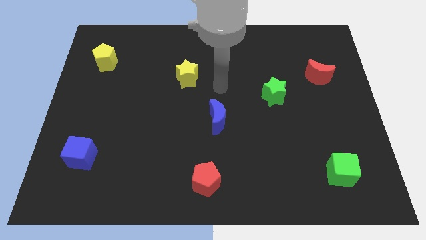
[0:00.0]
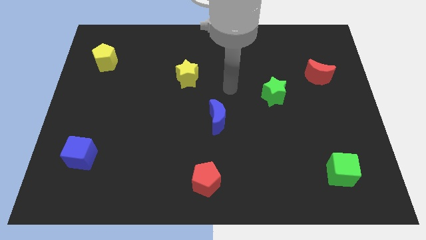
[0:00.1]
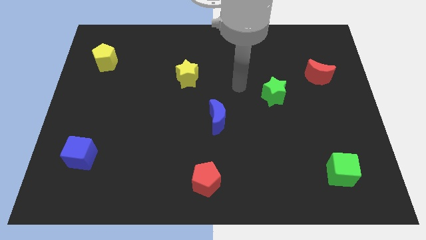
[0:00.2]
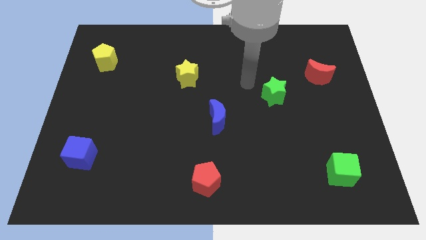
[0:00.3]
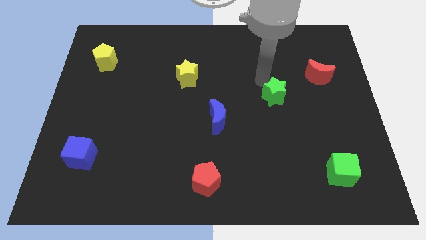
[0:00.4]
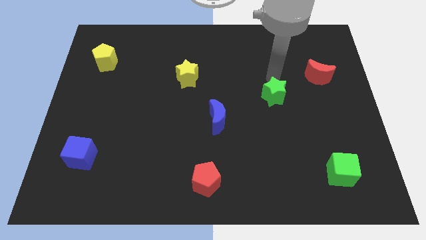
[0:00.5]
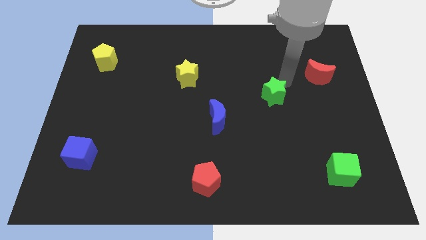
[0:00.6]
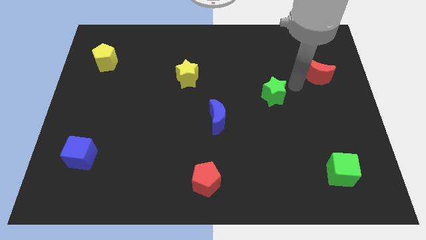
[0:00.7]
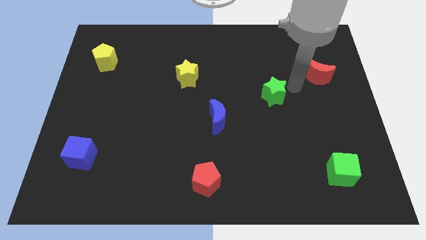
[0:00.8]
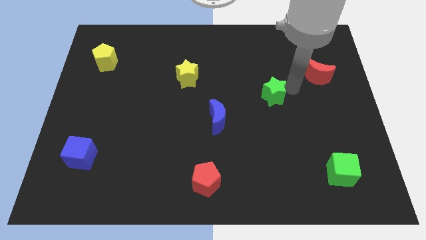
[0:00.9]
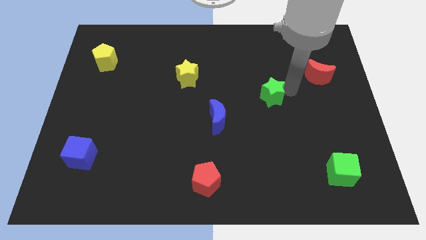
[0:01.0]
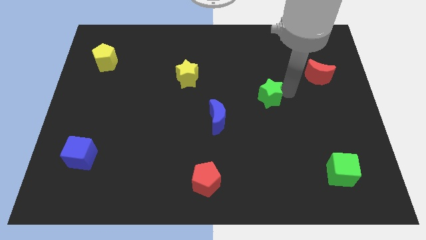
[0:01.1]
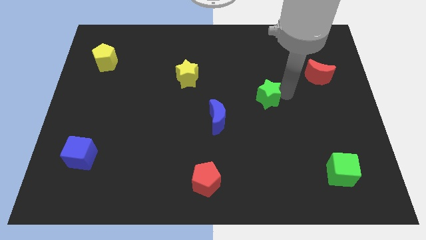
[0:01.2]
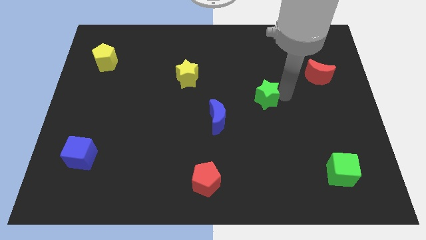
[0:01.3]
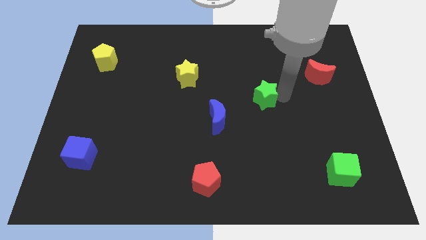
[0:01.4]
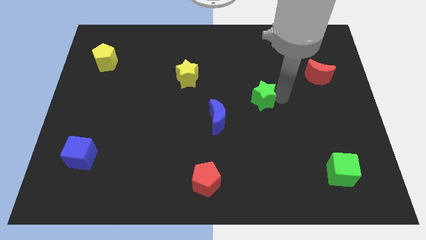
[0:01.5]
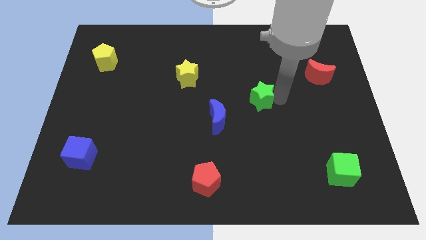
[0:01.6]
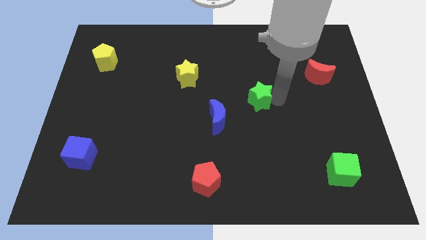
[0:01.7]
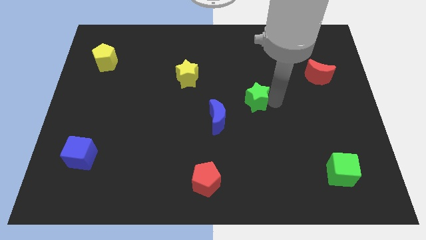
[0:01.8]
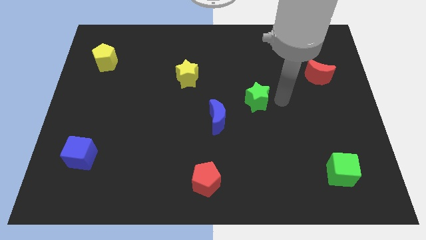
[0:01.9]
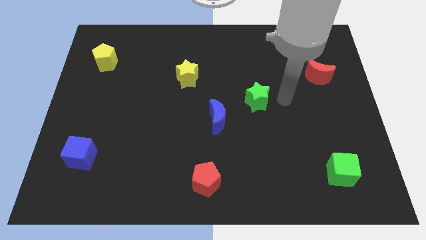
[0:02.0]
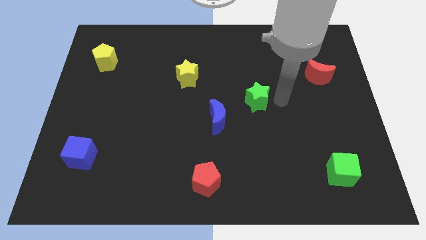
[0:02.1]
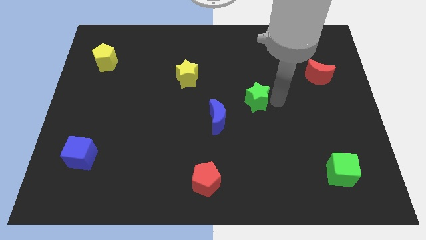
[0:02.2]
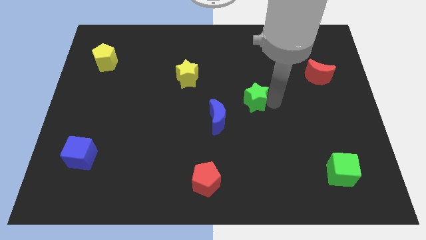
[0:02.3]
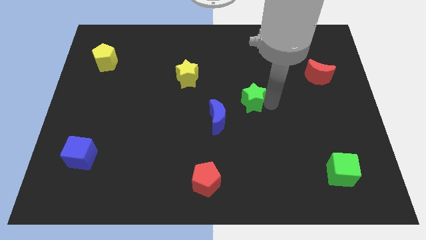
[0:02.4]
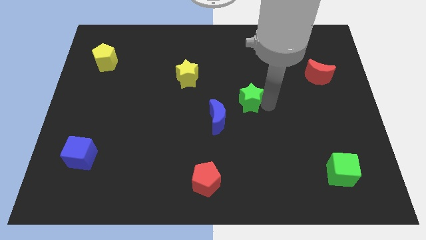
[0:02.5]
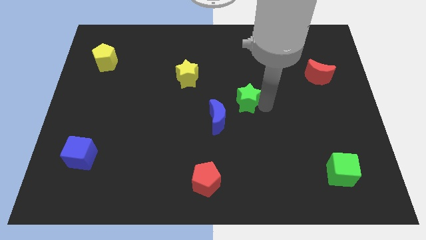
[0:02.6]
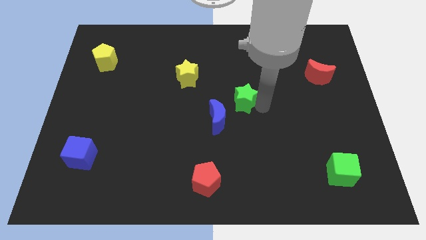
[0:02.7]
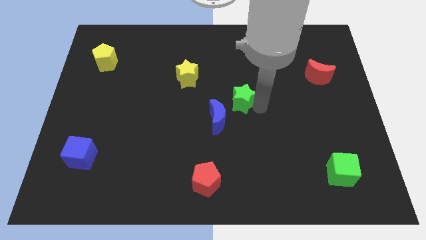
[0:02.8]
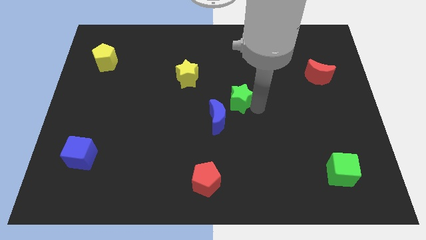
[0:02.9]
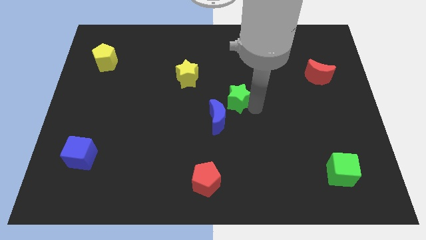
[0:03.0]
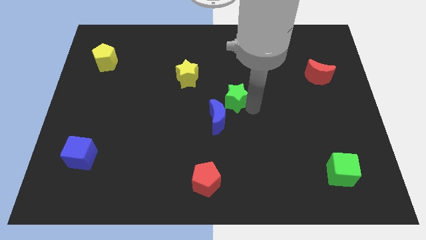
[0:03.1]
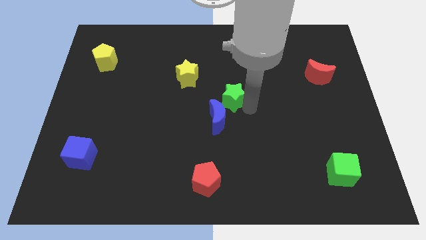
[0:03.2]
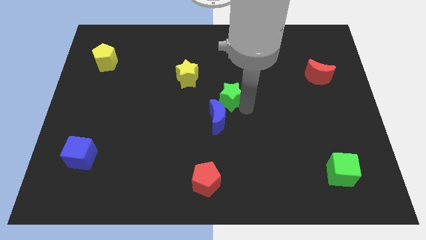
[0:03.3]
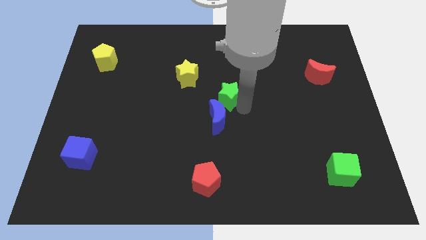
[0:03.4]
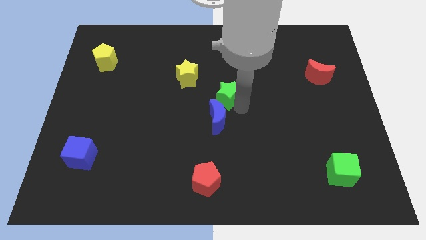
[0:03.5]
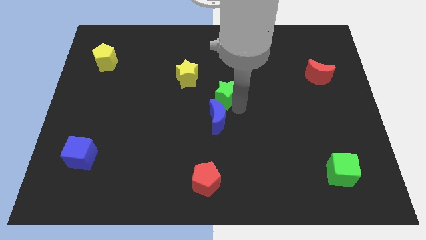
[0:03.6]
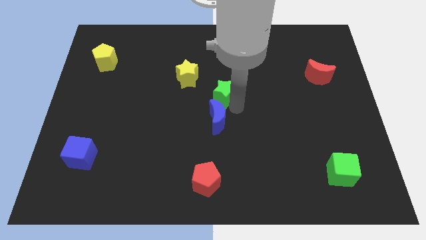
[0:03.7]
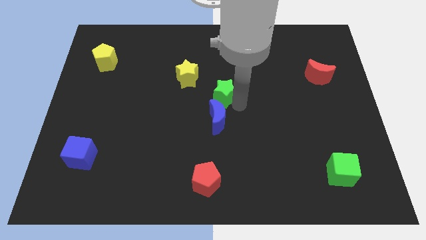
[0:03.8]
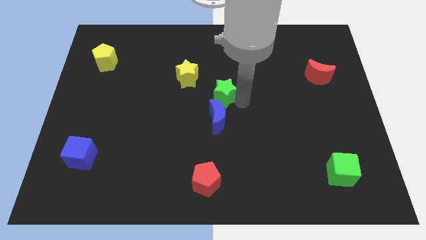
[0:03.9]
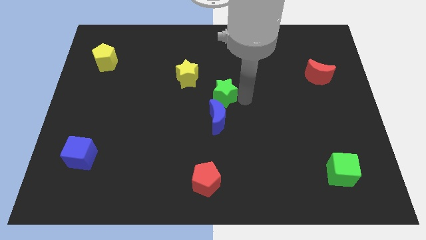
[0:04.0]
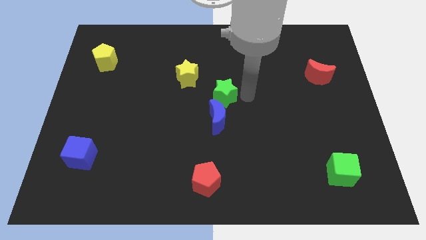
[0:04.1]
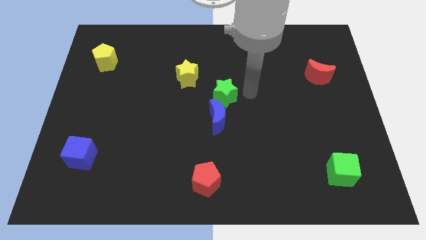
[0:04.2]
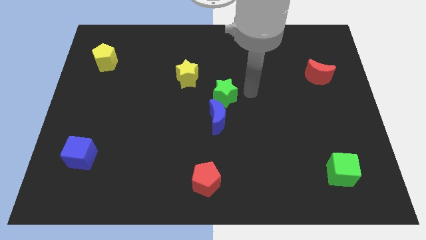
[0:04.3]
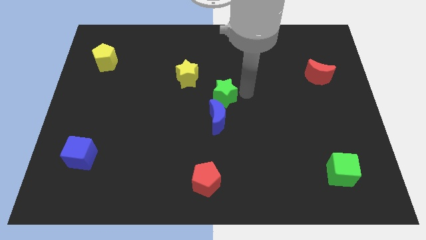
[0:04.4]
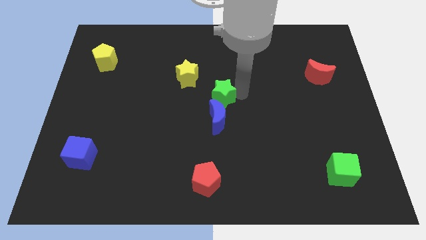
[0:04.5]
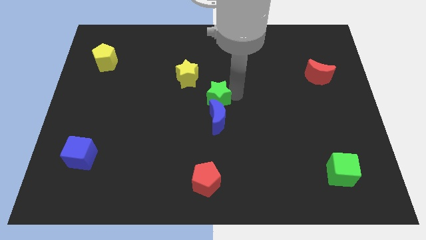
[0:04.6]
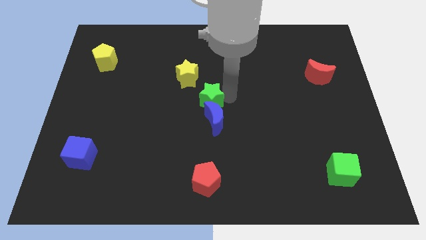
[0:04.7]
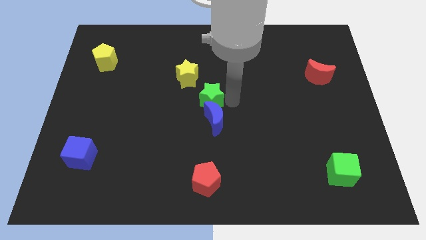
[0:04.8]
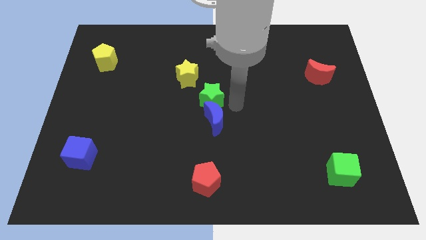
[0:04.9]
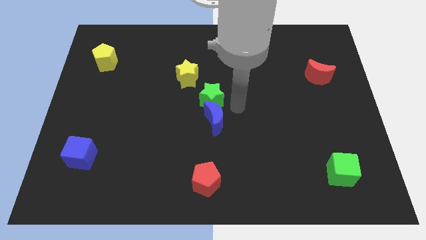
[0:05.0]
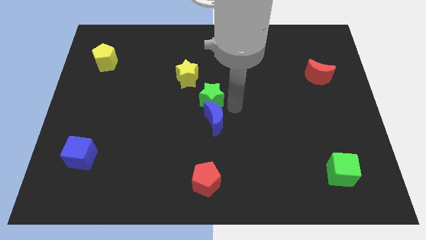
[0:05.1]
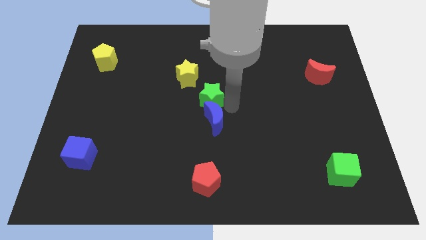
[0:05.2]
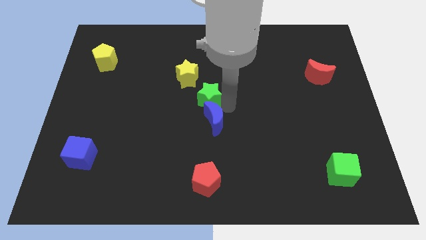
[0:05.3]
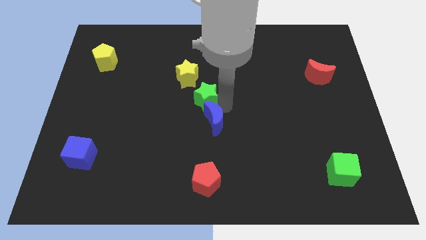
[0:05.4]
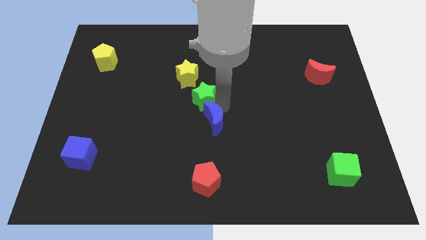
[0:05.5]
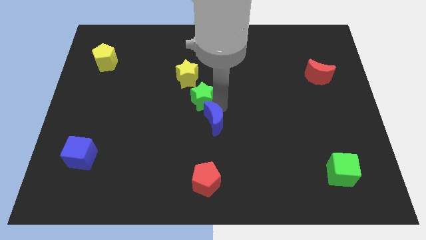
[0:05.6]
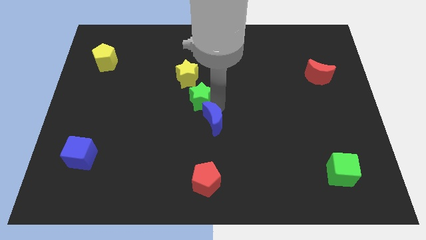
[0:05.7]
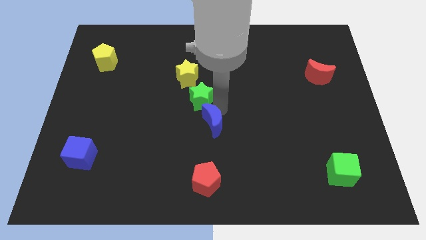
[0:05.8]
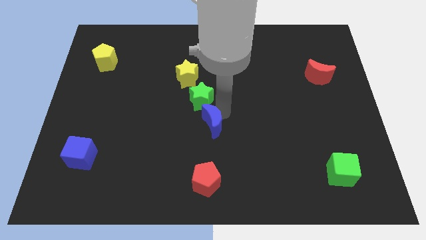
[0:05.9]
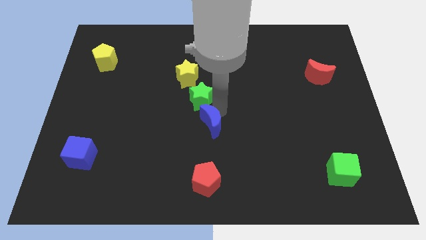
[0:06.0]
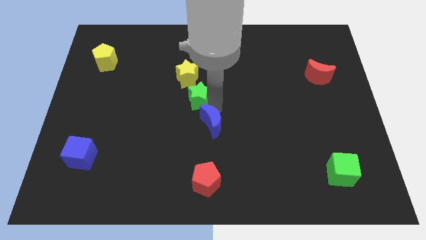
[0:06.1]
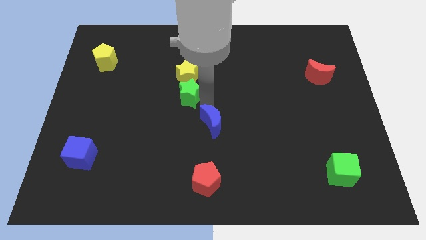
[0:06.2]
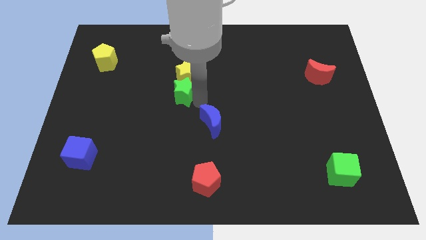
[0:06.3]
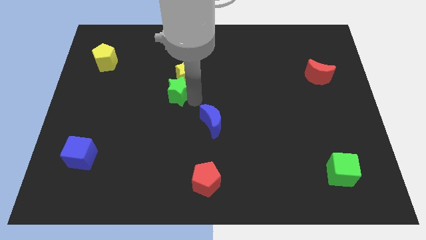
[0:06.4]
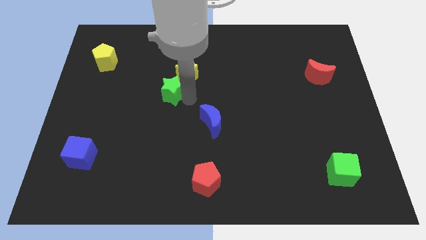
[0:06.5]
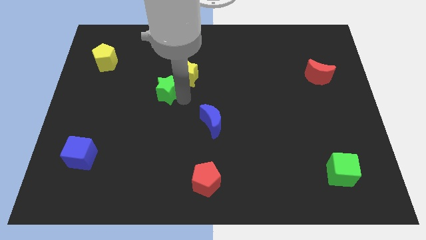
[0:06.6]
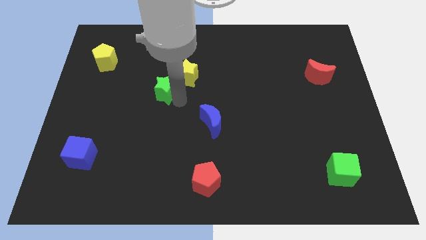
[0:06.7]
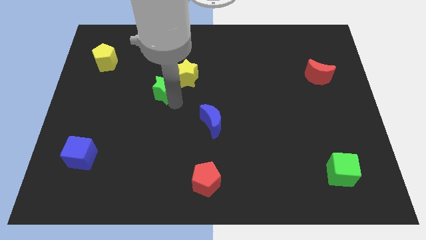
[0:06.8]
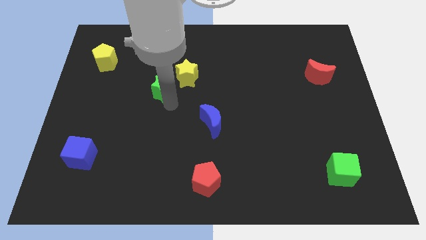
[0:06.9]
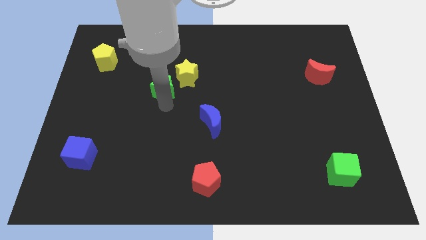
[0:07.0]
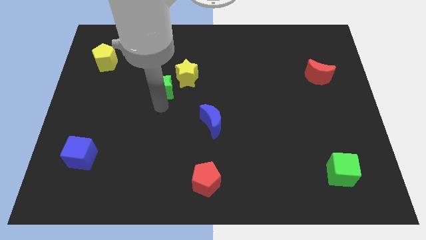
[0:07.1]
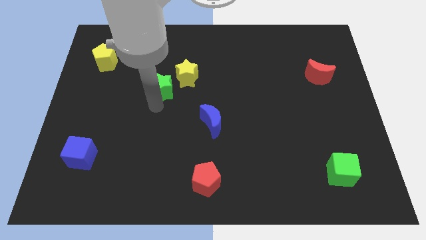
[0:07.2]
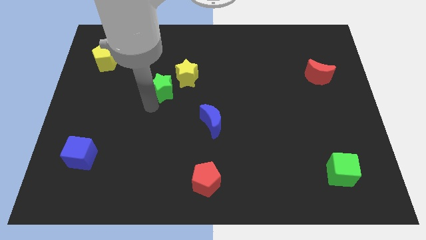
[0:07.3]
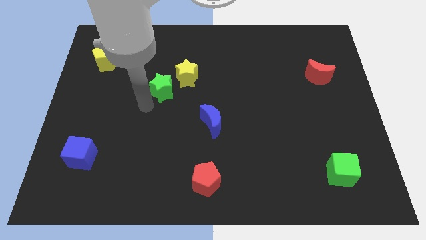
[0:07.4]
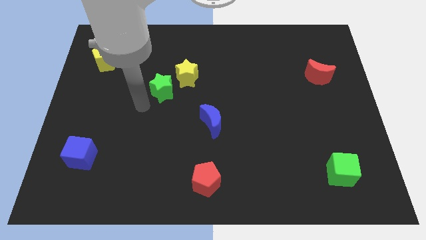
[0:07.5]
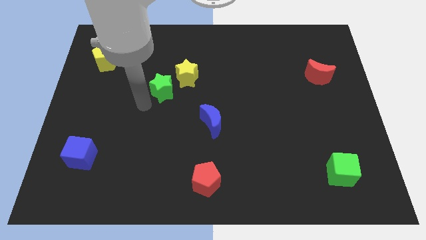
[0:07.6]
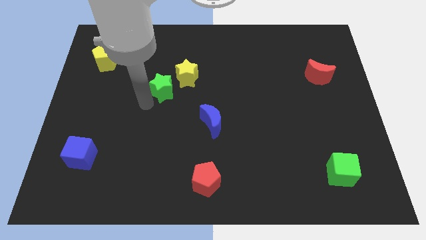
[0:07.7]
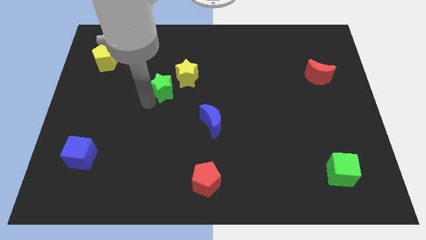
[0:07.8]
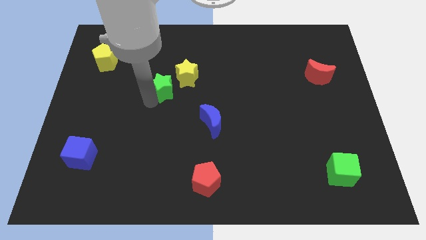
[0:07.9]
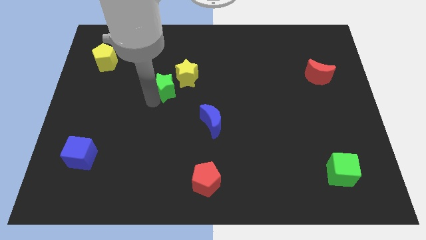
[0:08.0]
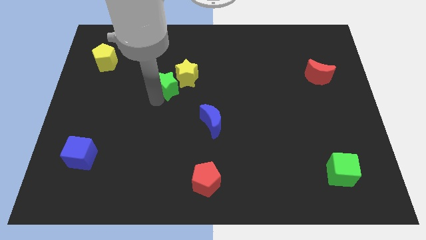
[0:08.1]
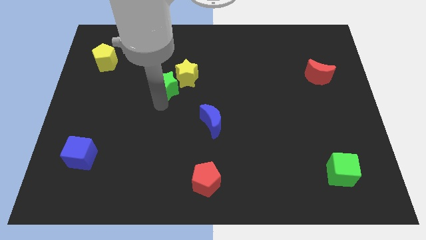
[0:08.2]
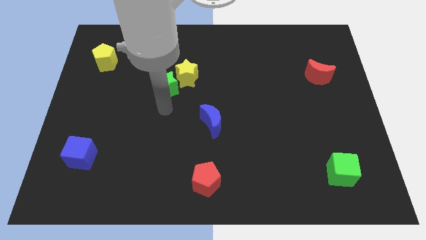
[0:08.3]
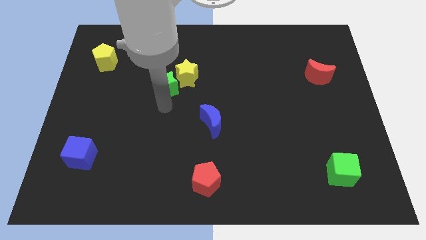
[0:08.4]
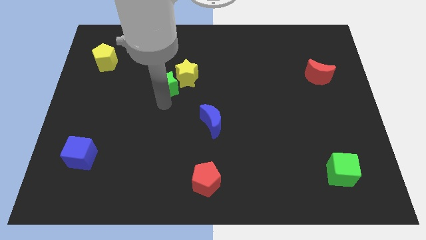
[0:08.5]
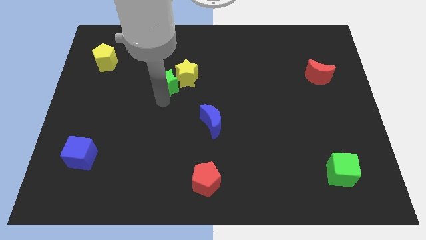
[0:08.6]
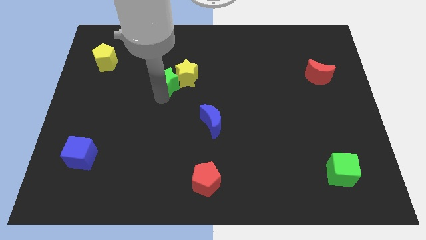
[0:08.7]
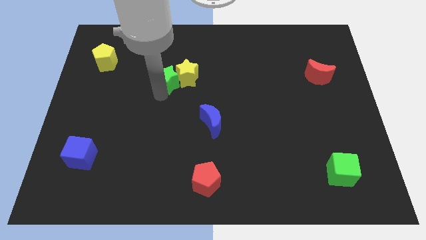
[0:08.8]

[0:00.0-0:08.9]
push the green star to the top left of the yellow star
